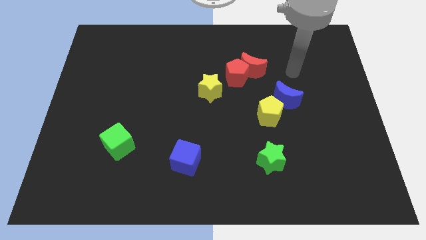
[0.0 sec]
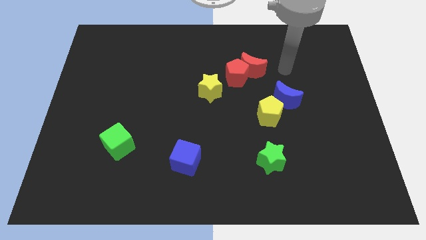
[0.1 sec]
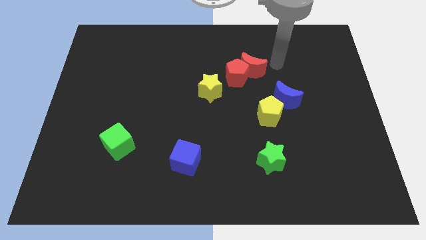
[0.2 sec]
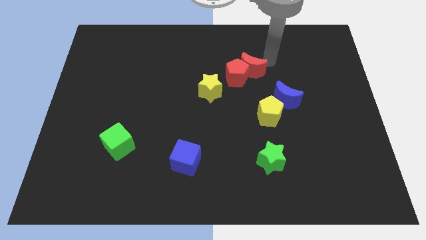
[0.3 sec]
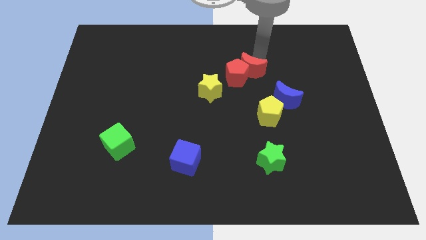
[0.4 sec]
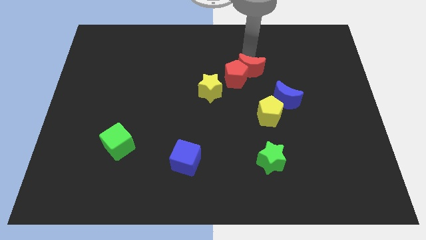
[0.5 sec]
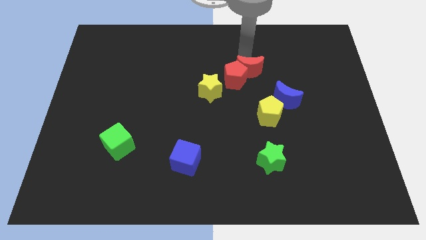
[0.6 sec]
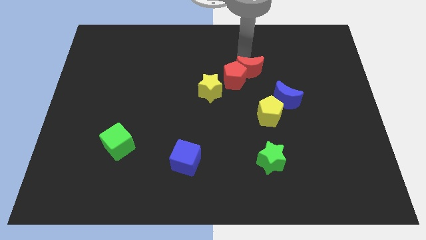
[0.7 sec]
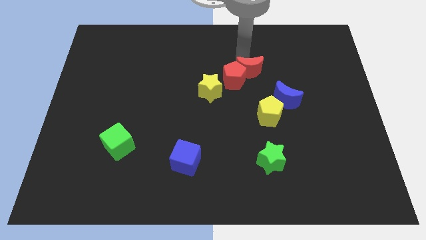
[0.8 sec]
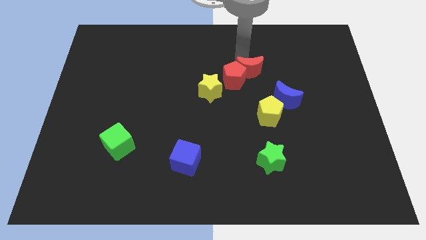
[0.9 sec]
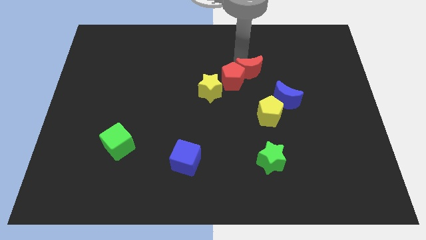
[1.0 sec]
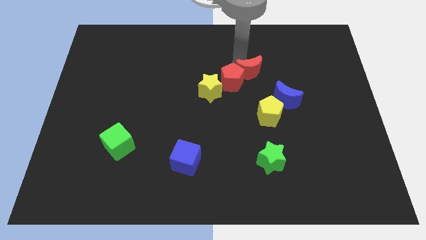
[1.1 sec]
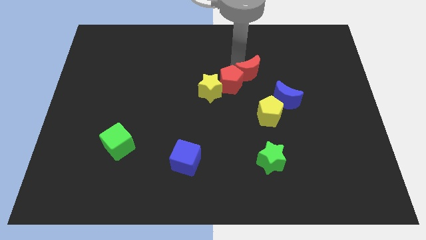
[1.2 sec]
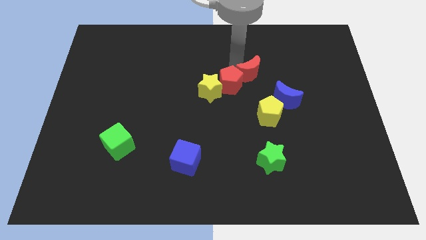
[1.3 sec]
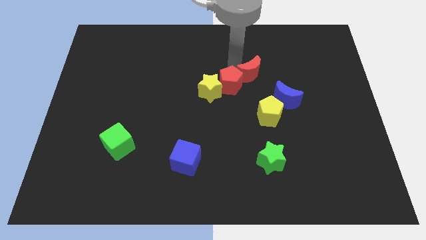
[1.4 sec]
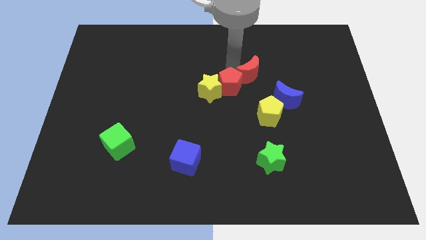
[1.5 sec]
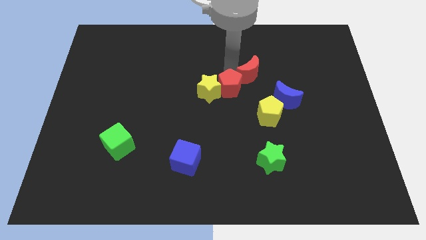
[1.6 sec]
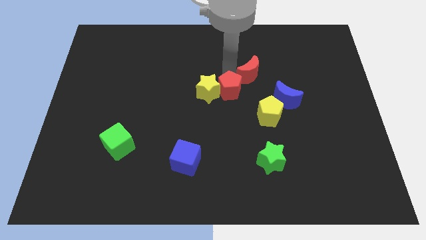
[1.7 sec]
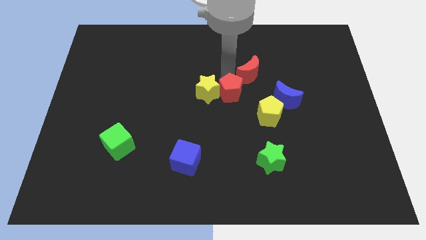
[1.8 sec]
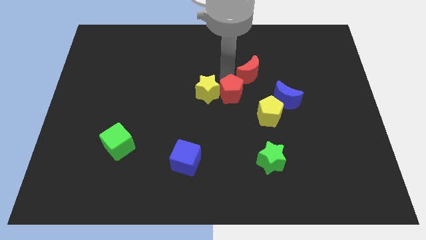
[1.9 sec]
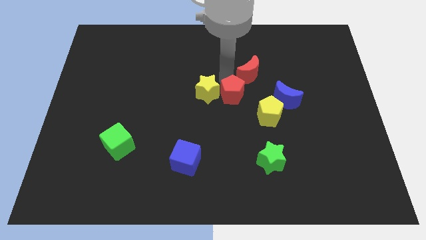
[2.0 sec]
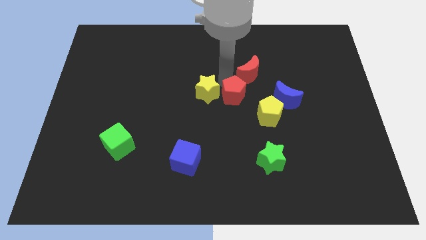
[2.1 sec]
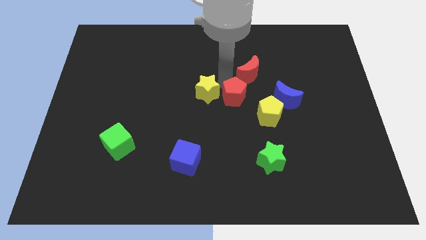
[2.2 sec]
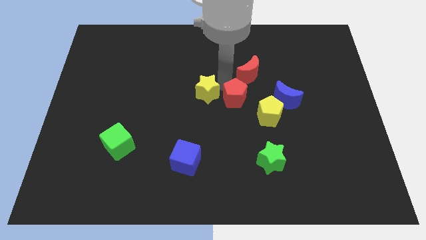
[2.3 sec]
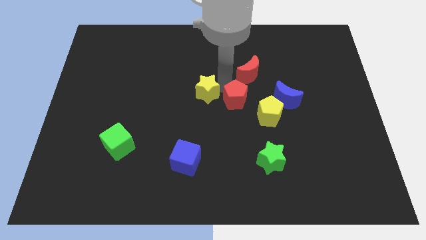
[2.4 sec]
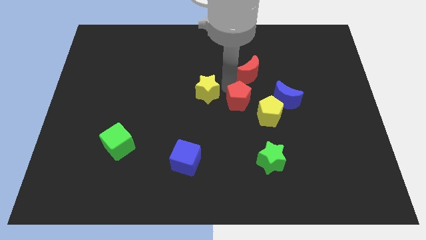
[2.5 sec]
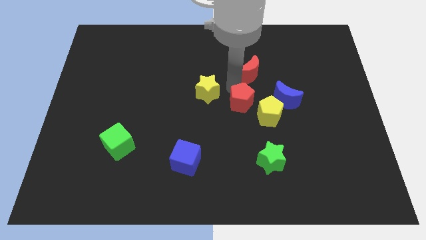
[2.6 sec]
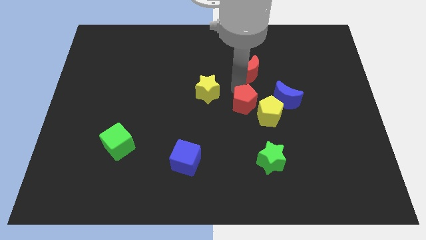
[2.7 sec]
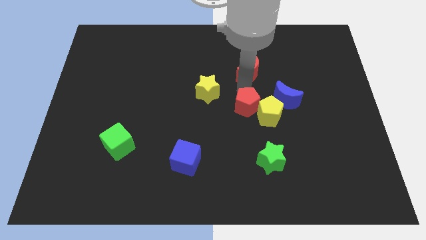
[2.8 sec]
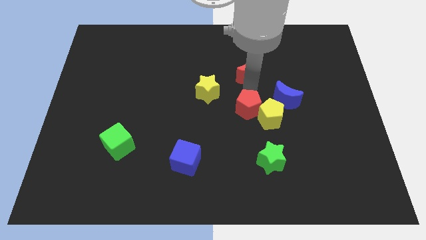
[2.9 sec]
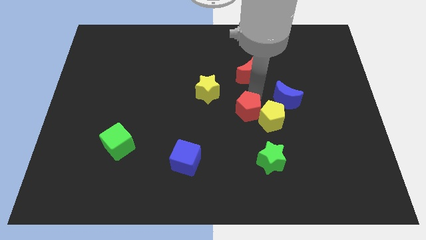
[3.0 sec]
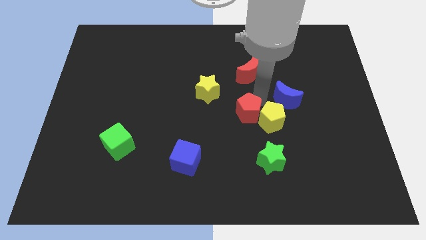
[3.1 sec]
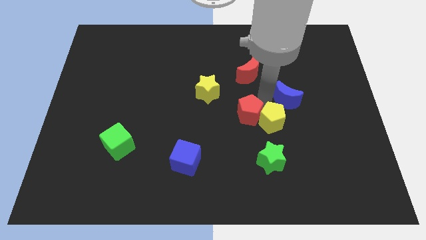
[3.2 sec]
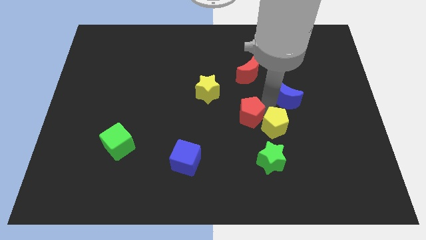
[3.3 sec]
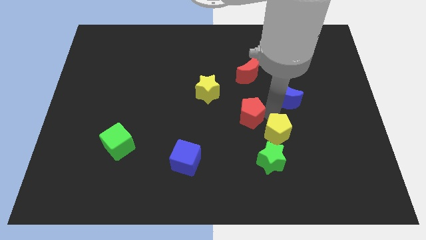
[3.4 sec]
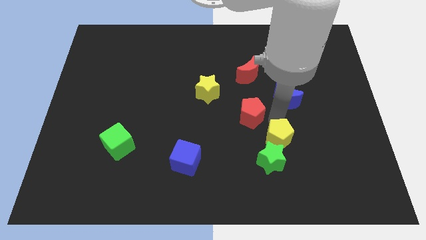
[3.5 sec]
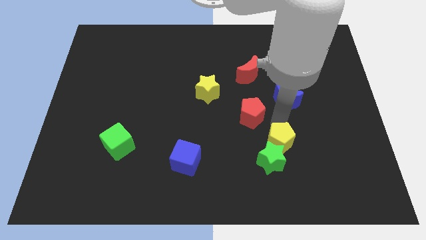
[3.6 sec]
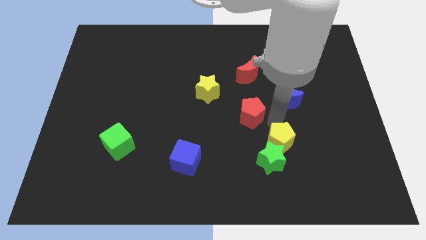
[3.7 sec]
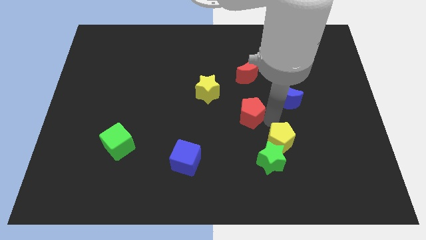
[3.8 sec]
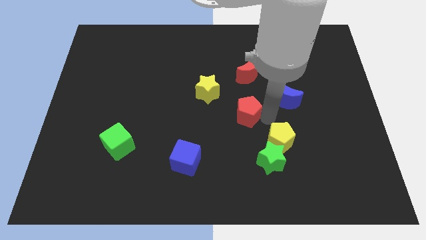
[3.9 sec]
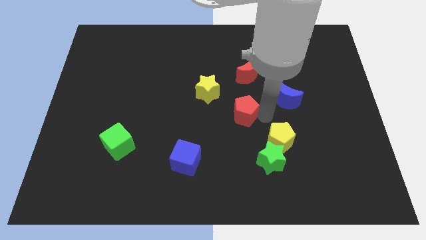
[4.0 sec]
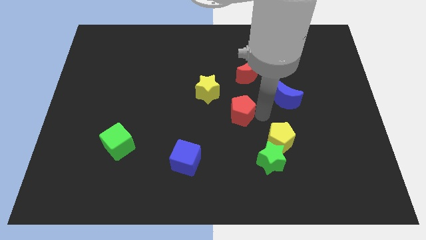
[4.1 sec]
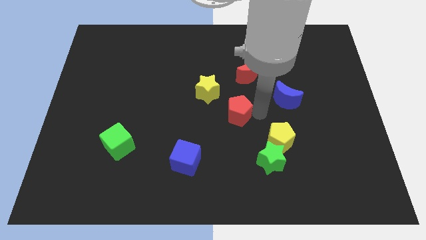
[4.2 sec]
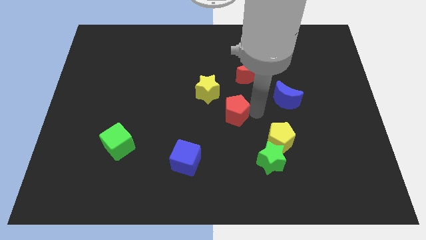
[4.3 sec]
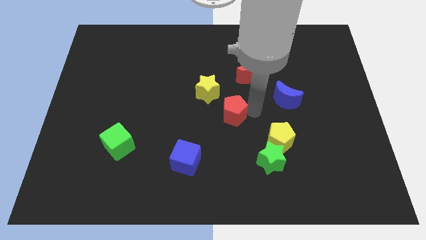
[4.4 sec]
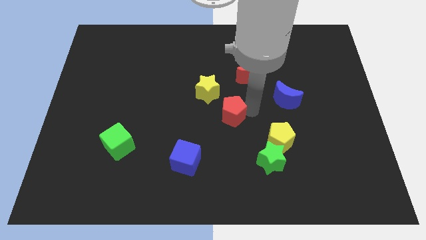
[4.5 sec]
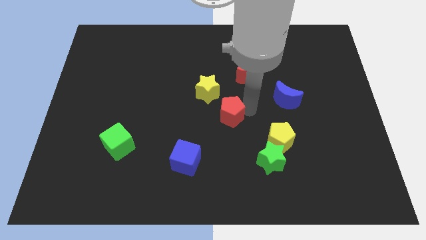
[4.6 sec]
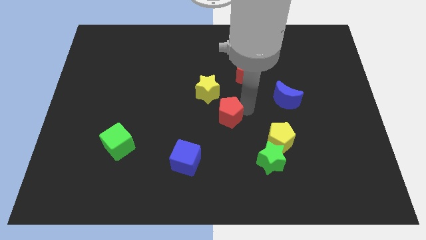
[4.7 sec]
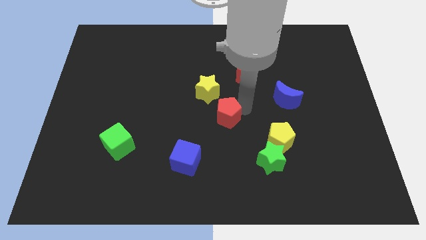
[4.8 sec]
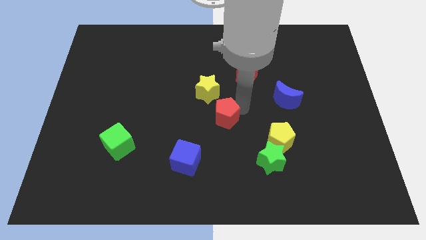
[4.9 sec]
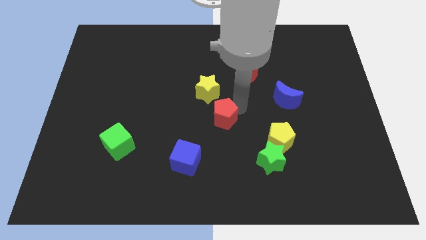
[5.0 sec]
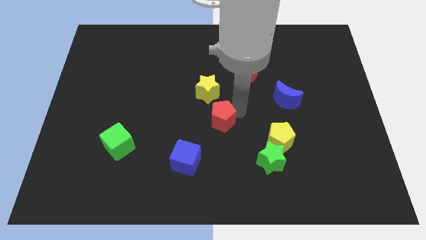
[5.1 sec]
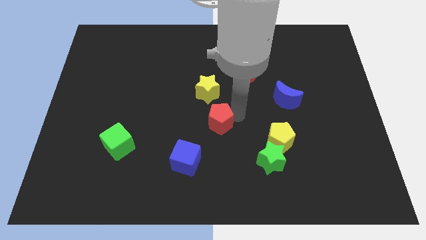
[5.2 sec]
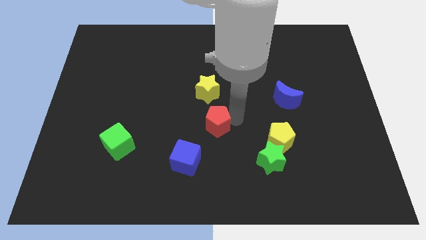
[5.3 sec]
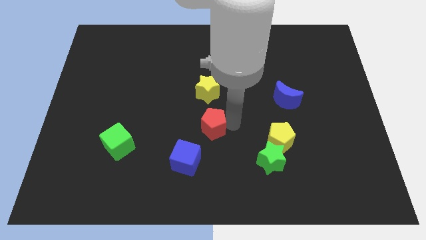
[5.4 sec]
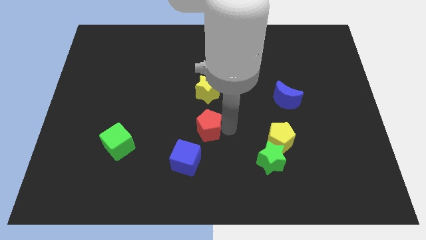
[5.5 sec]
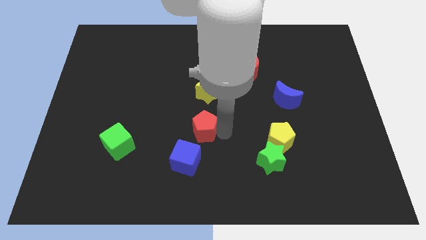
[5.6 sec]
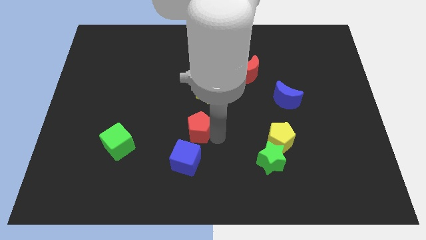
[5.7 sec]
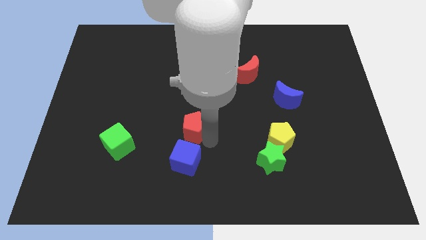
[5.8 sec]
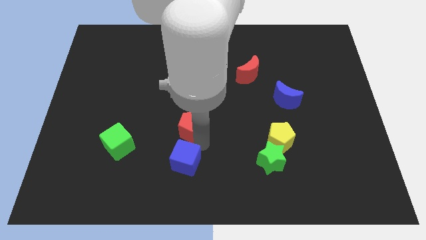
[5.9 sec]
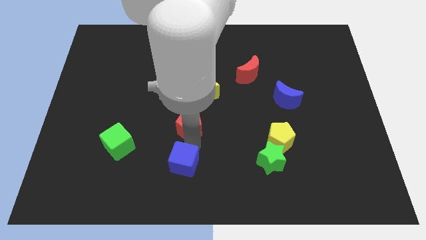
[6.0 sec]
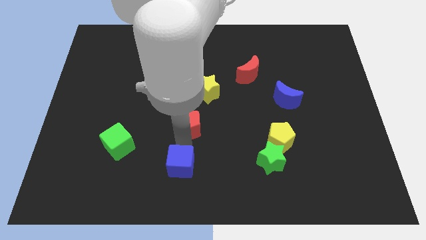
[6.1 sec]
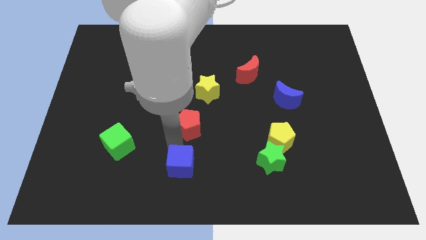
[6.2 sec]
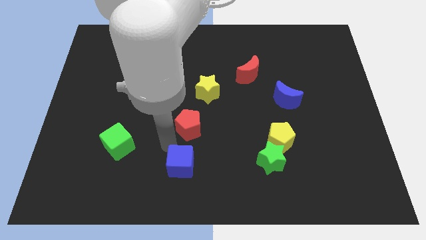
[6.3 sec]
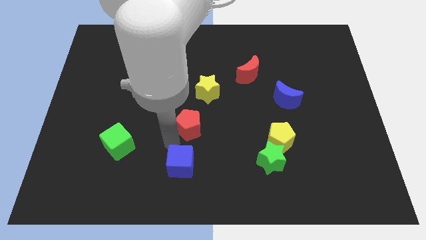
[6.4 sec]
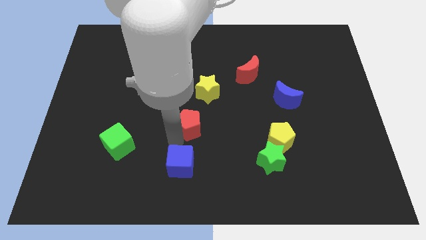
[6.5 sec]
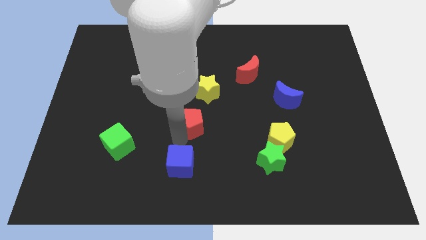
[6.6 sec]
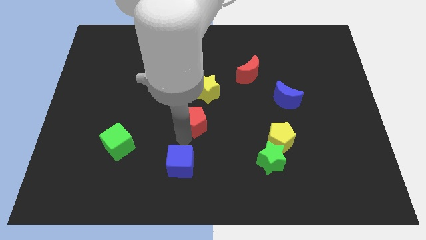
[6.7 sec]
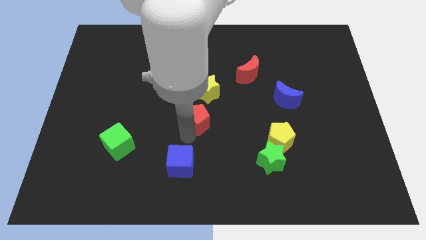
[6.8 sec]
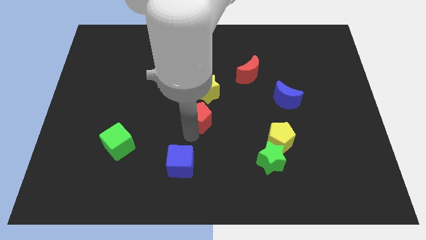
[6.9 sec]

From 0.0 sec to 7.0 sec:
put the red pentagon to the bottom left side of the yellow star
